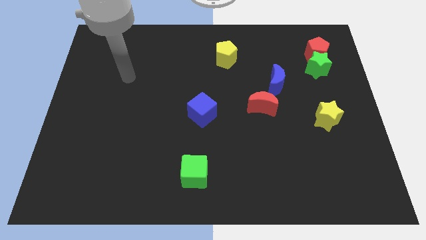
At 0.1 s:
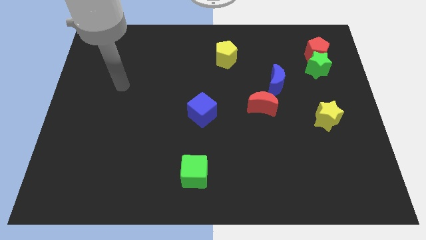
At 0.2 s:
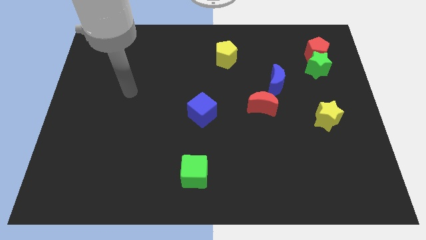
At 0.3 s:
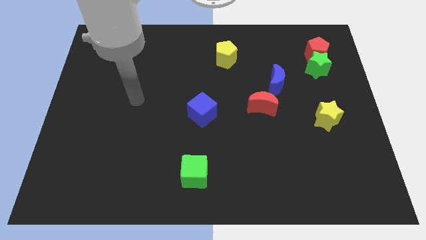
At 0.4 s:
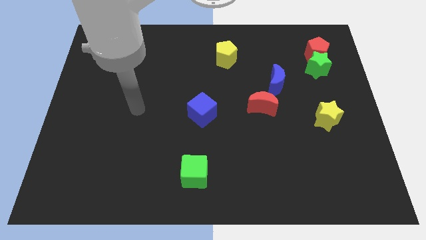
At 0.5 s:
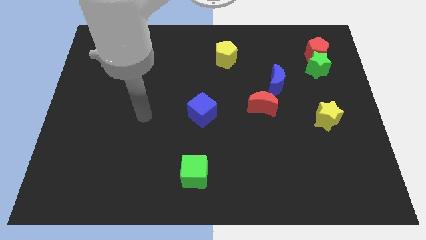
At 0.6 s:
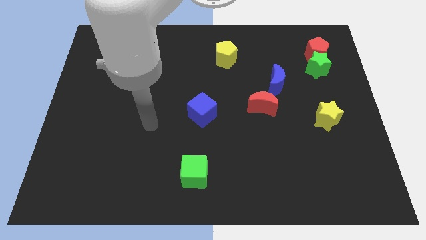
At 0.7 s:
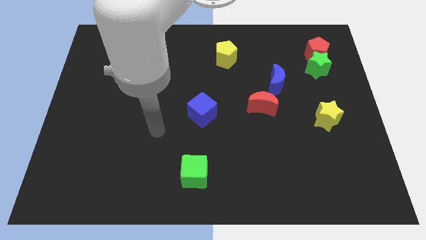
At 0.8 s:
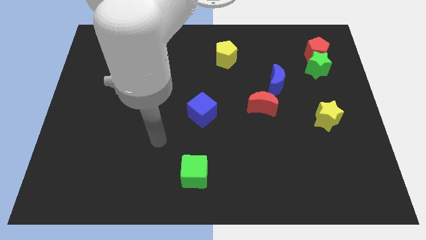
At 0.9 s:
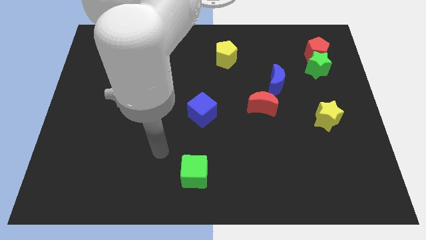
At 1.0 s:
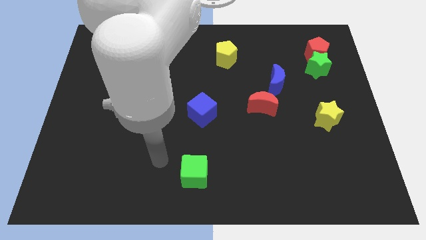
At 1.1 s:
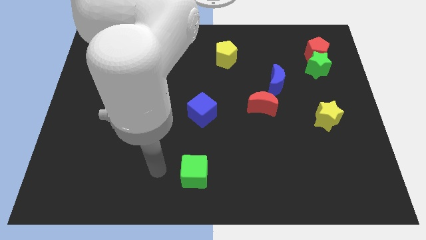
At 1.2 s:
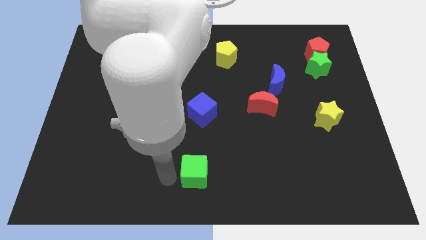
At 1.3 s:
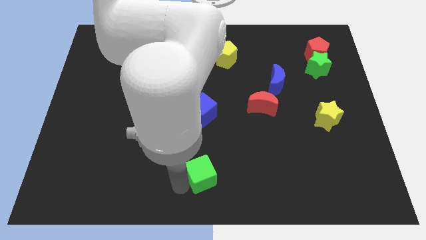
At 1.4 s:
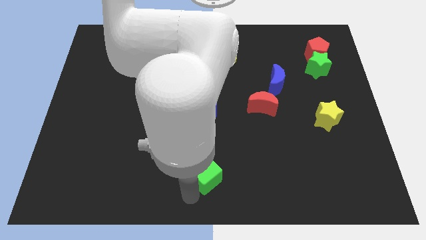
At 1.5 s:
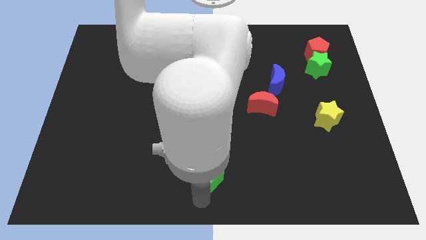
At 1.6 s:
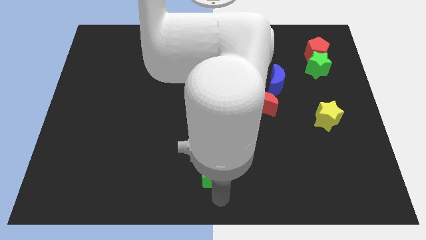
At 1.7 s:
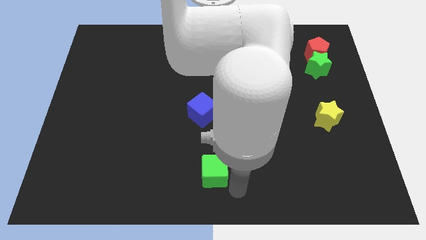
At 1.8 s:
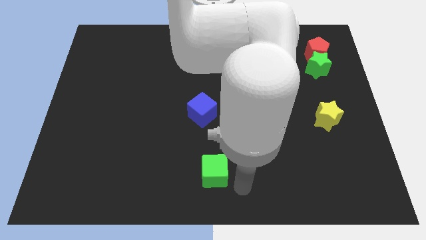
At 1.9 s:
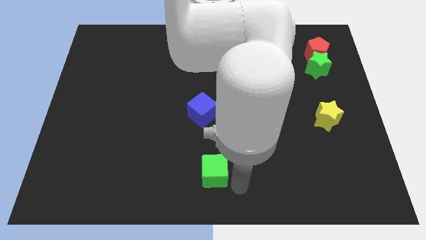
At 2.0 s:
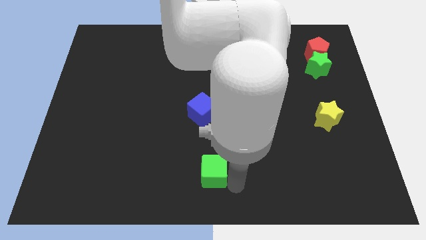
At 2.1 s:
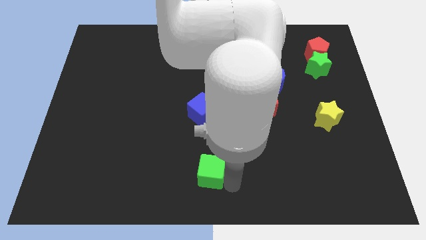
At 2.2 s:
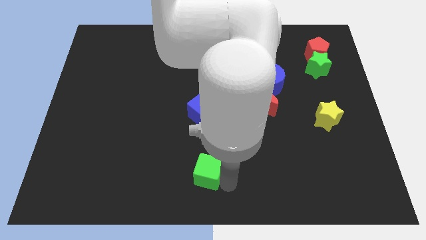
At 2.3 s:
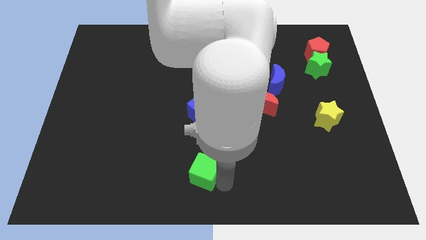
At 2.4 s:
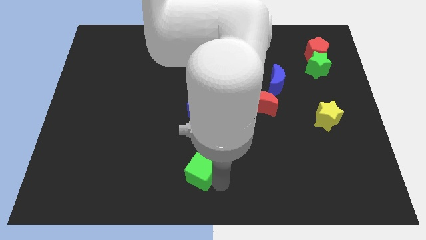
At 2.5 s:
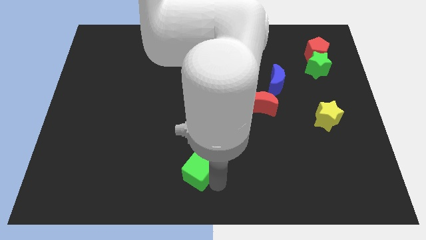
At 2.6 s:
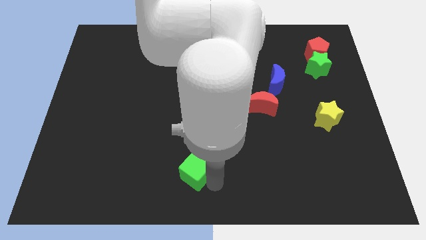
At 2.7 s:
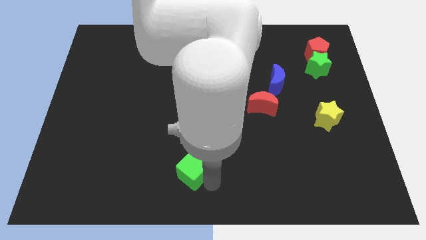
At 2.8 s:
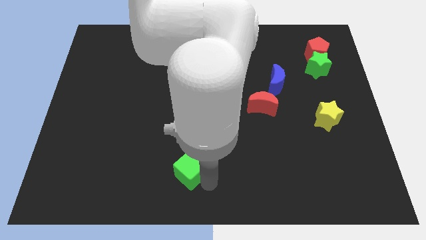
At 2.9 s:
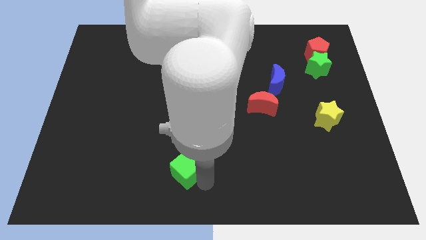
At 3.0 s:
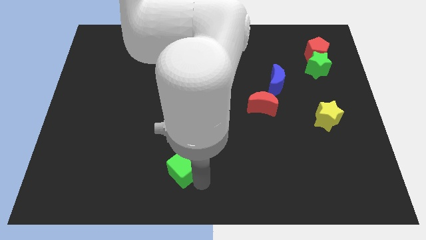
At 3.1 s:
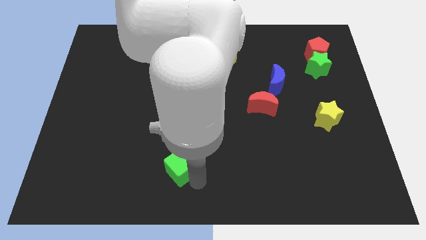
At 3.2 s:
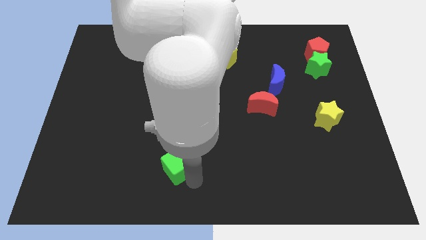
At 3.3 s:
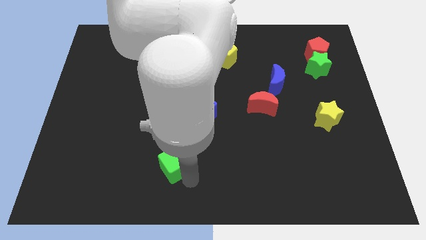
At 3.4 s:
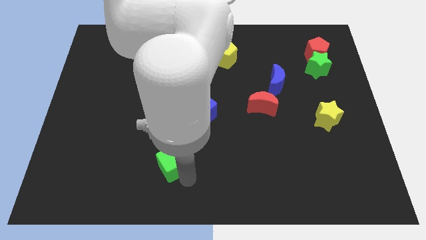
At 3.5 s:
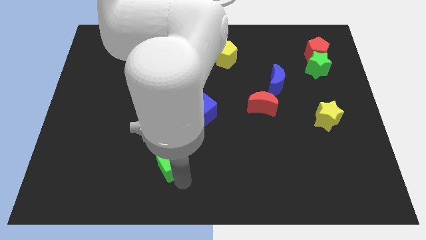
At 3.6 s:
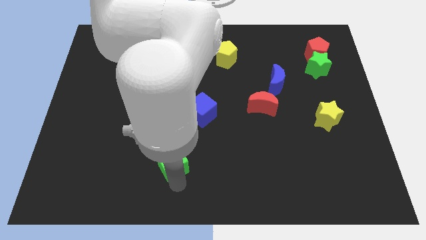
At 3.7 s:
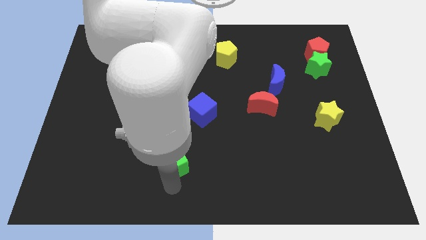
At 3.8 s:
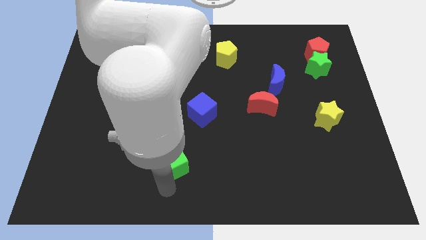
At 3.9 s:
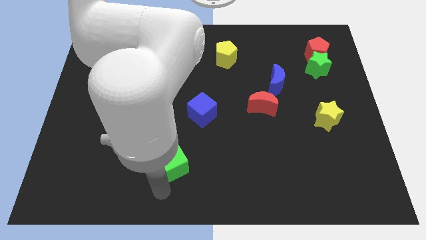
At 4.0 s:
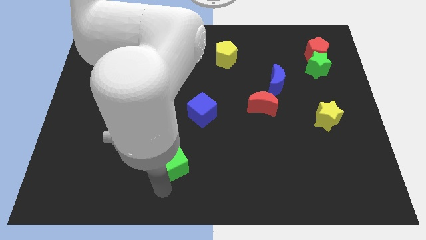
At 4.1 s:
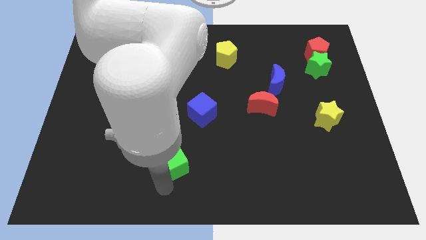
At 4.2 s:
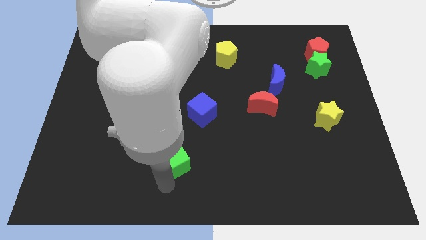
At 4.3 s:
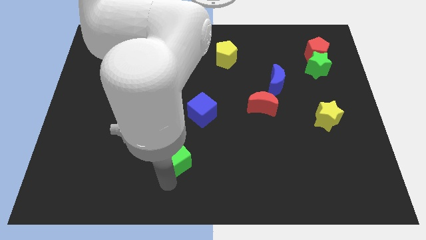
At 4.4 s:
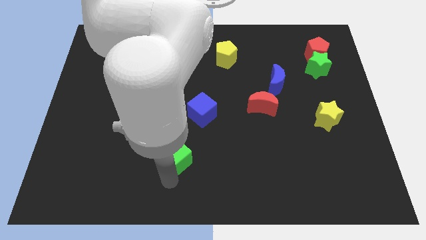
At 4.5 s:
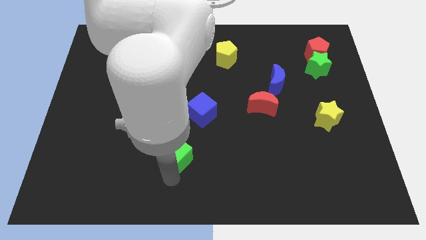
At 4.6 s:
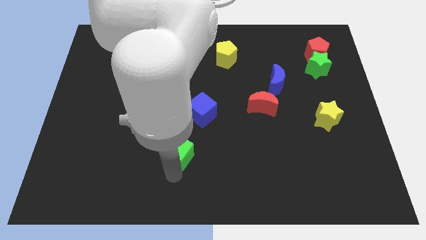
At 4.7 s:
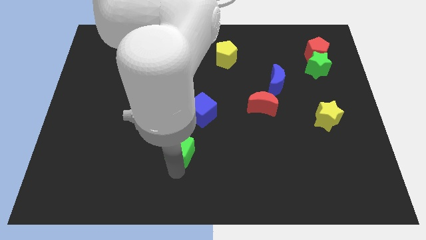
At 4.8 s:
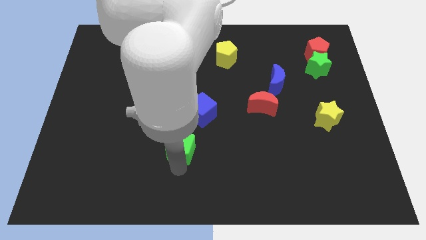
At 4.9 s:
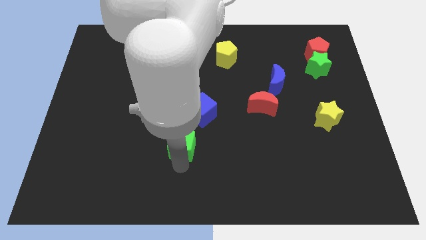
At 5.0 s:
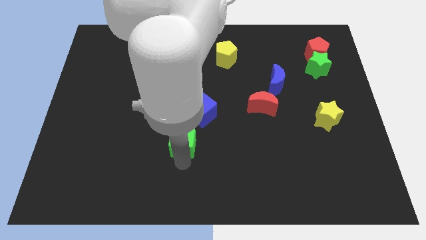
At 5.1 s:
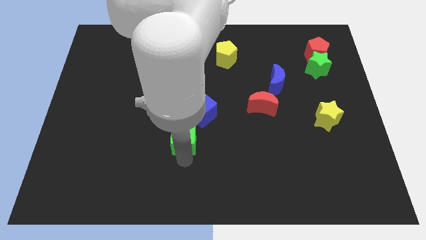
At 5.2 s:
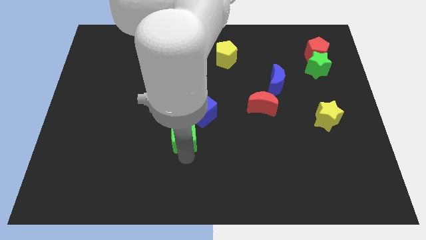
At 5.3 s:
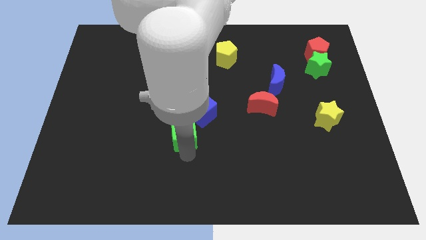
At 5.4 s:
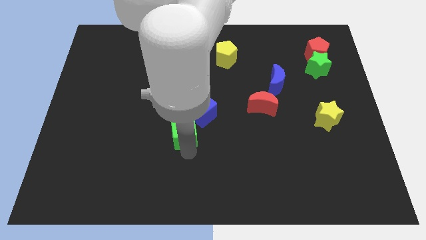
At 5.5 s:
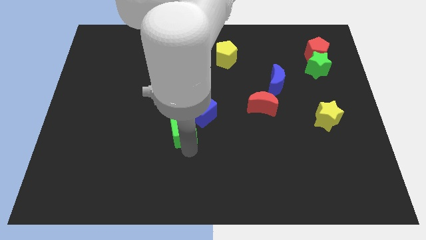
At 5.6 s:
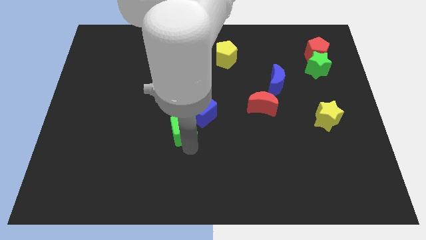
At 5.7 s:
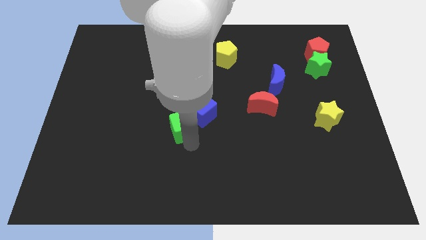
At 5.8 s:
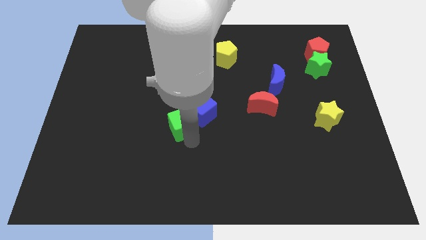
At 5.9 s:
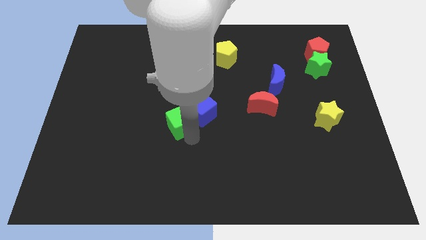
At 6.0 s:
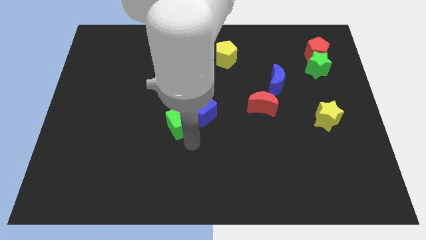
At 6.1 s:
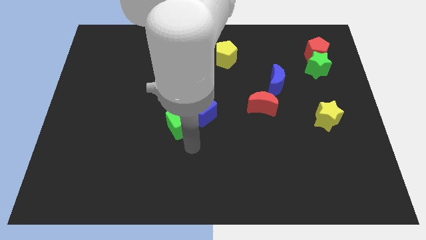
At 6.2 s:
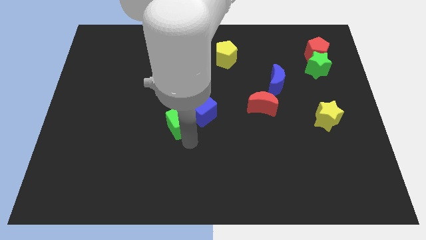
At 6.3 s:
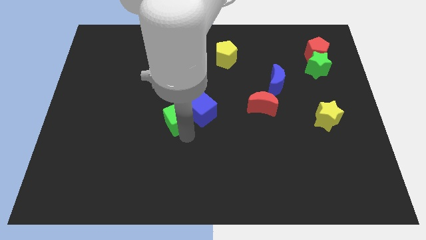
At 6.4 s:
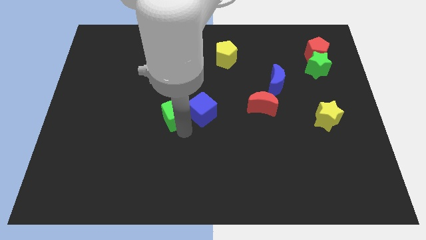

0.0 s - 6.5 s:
push the green cube to the top left of the blue cube
